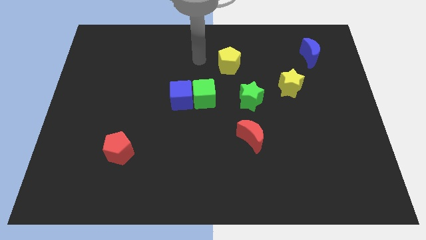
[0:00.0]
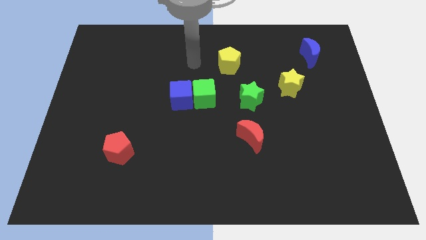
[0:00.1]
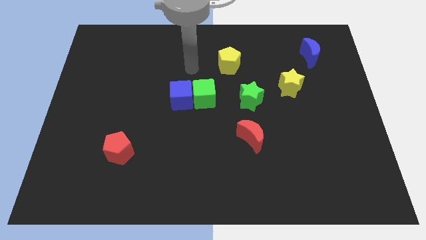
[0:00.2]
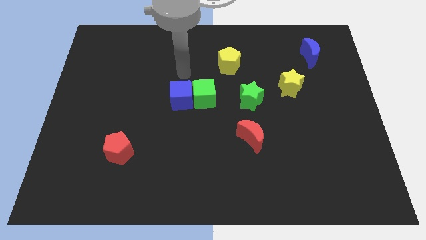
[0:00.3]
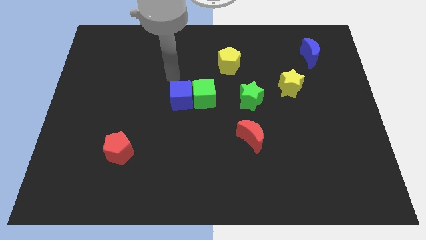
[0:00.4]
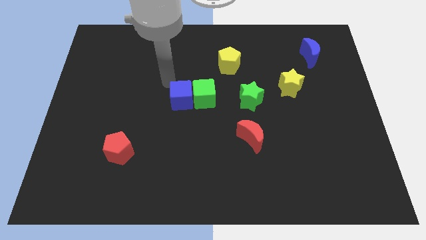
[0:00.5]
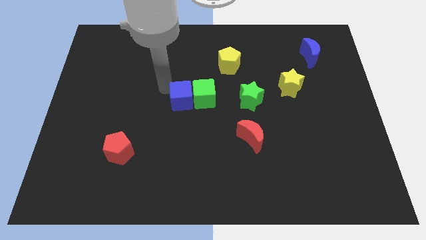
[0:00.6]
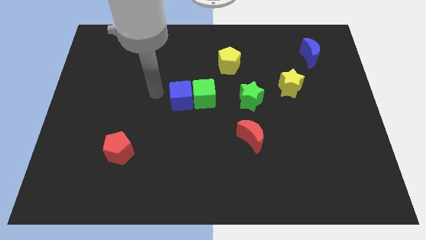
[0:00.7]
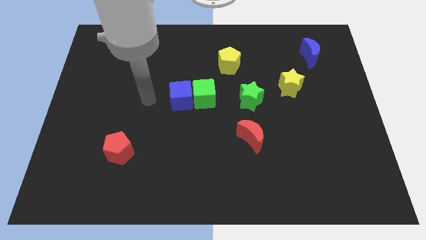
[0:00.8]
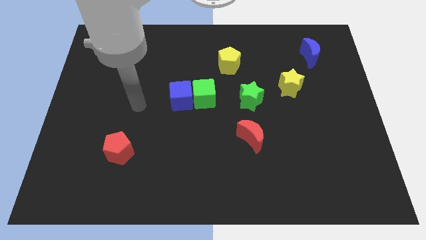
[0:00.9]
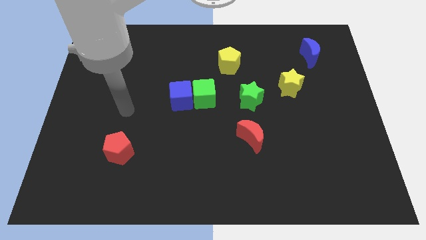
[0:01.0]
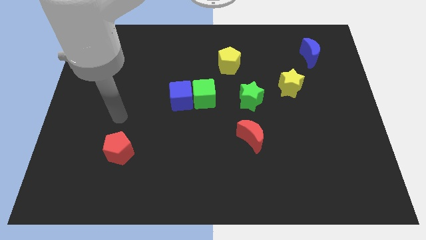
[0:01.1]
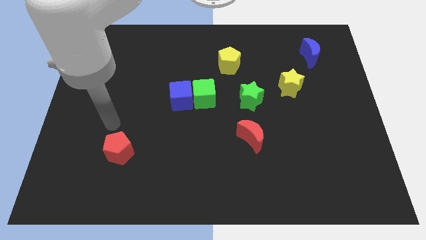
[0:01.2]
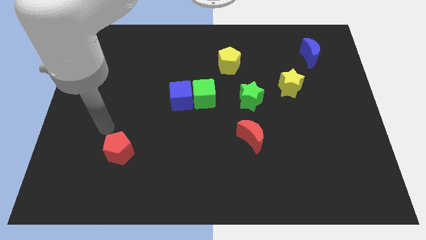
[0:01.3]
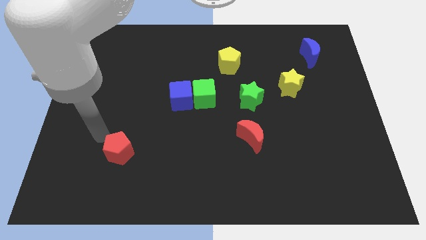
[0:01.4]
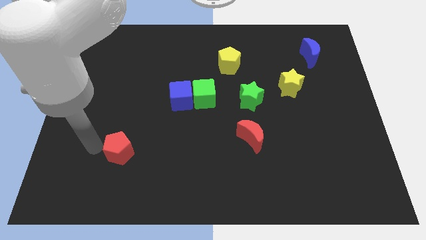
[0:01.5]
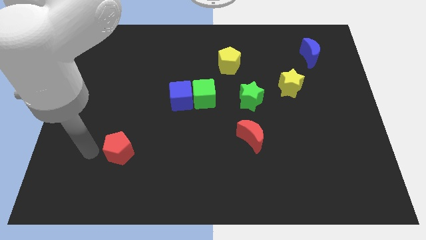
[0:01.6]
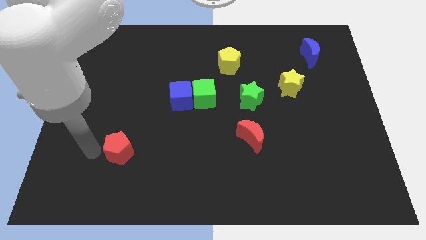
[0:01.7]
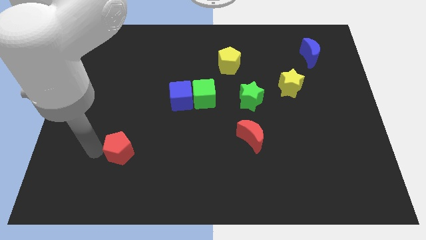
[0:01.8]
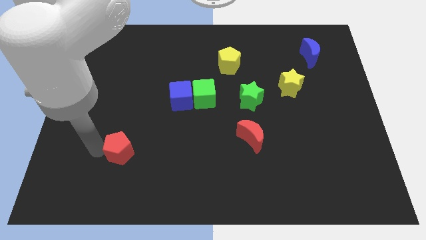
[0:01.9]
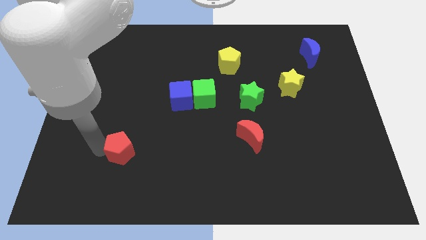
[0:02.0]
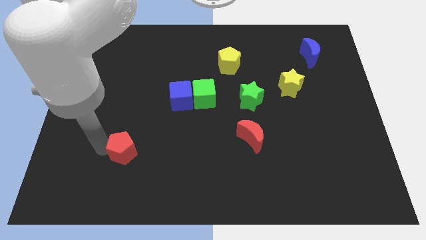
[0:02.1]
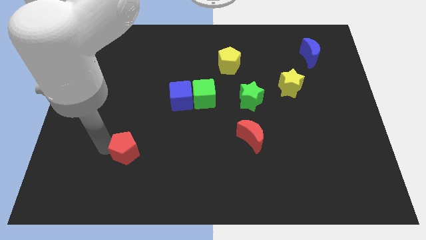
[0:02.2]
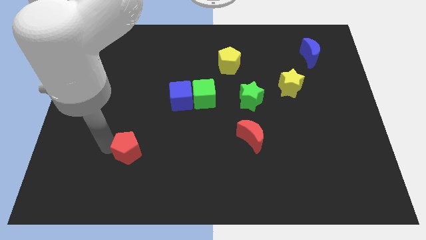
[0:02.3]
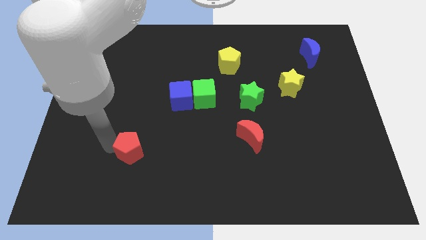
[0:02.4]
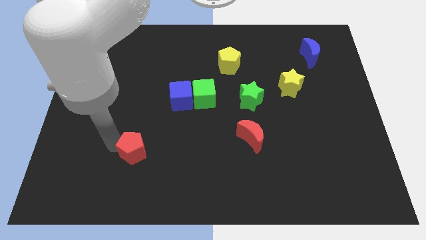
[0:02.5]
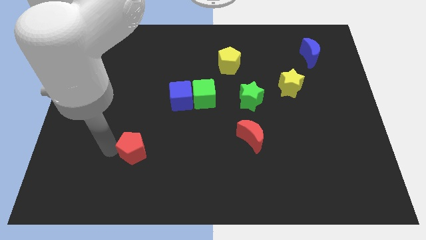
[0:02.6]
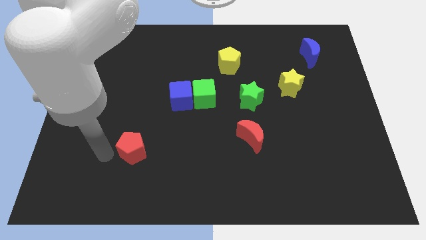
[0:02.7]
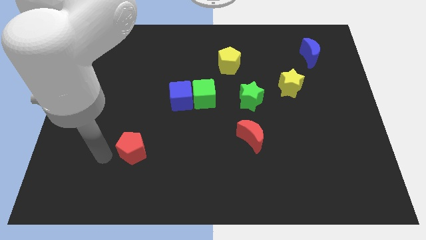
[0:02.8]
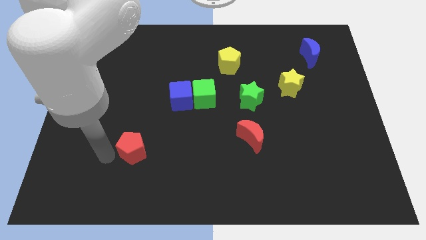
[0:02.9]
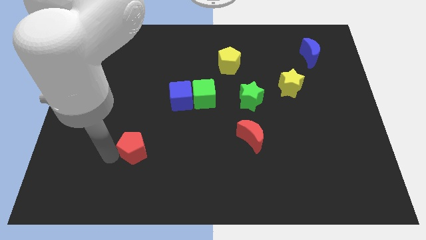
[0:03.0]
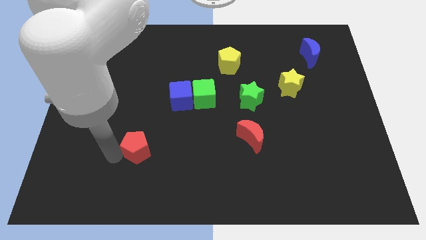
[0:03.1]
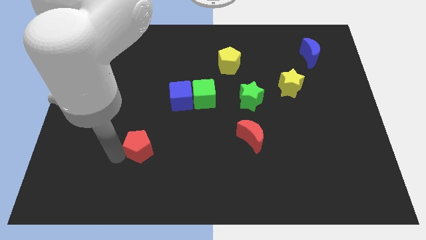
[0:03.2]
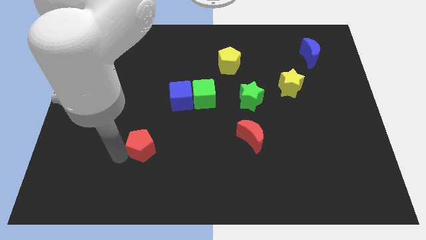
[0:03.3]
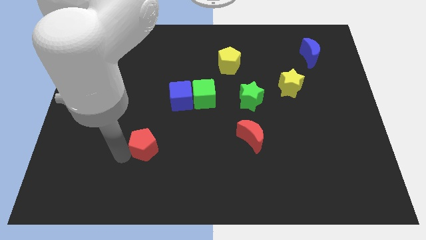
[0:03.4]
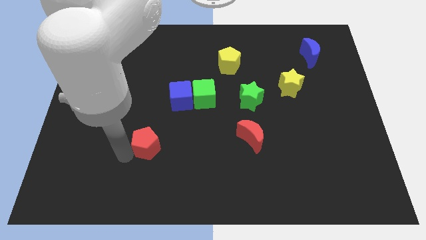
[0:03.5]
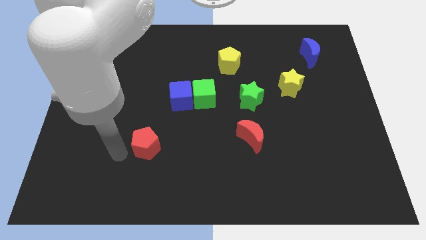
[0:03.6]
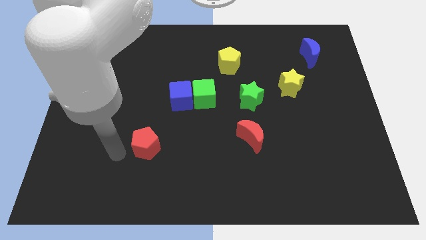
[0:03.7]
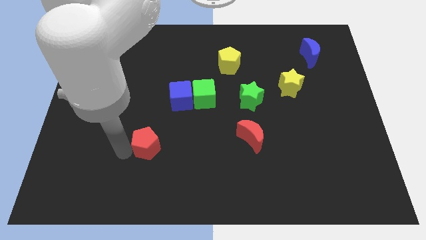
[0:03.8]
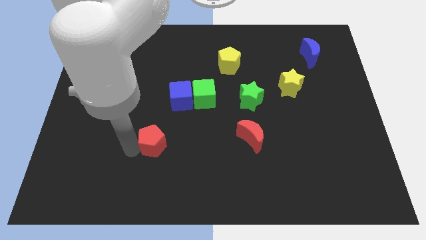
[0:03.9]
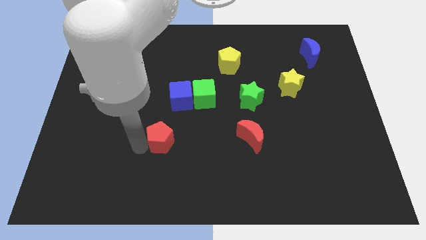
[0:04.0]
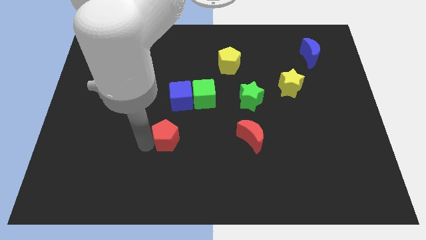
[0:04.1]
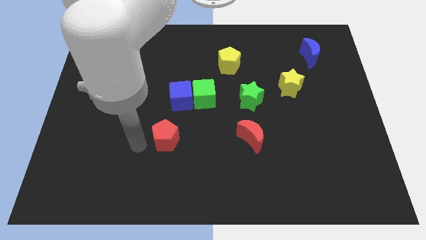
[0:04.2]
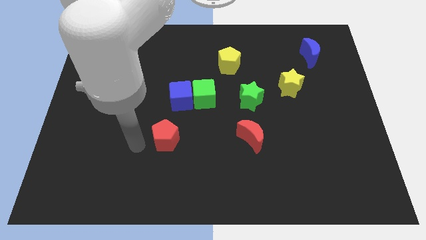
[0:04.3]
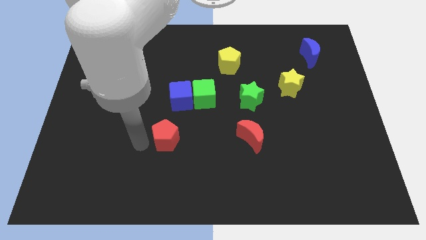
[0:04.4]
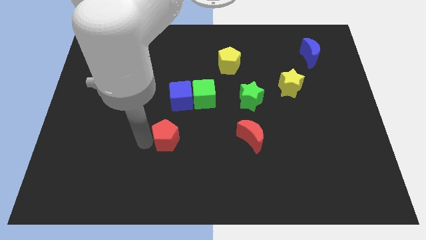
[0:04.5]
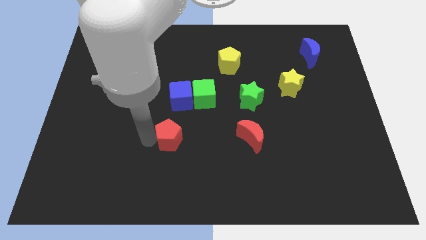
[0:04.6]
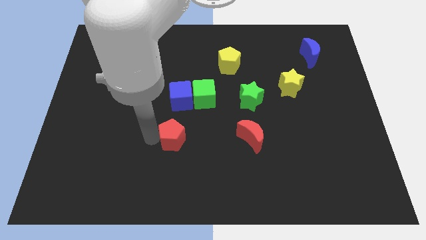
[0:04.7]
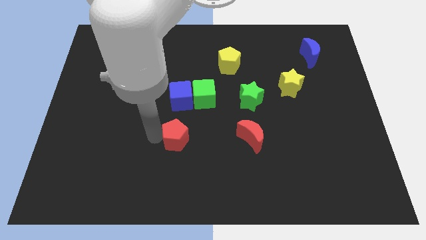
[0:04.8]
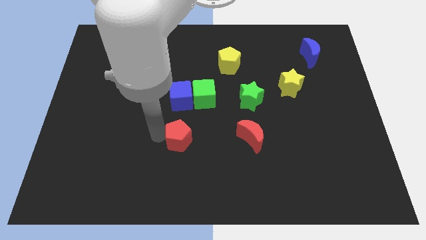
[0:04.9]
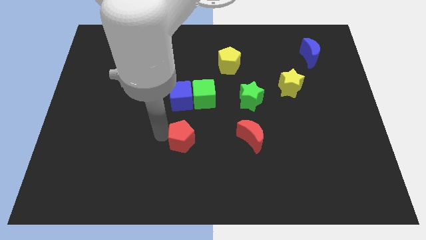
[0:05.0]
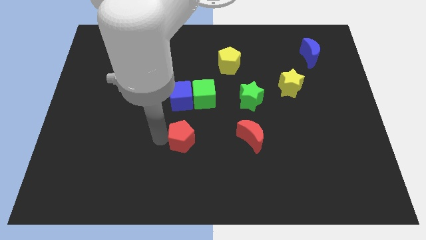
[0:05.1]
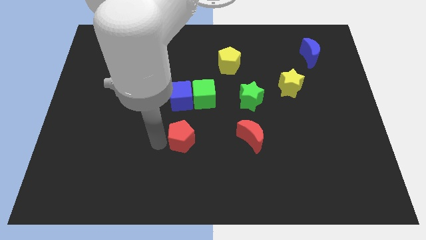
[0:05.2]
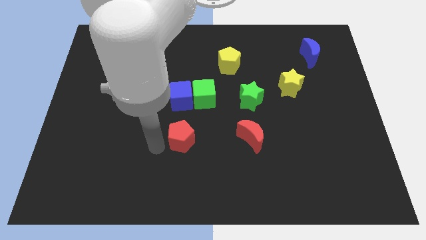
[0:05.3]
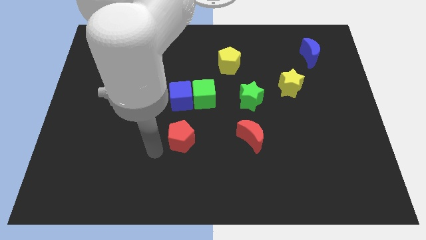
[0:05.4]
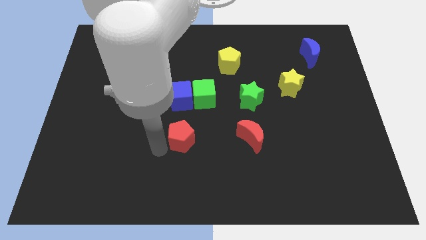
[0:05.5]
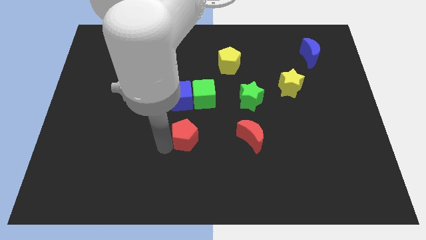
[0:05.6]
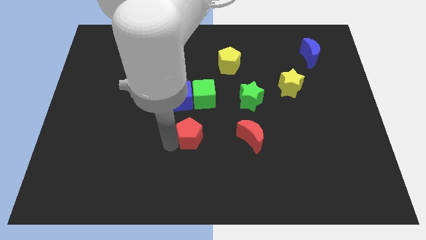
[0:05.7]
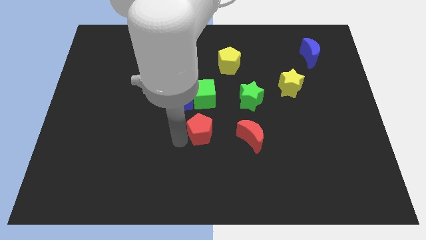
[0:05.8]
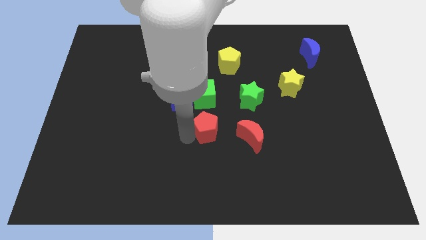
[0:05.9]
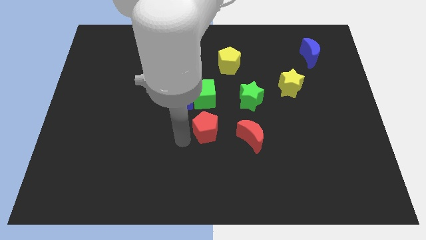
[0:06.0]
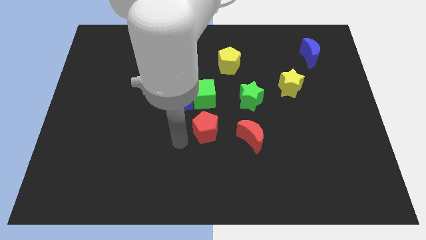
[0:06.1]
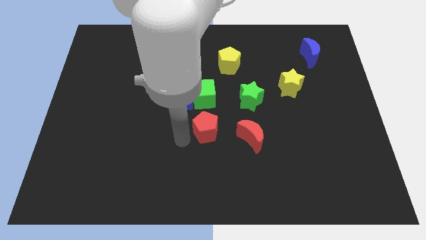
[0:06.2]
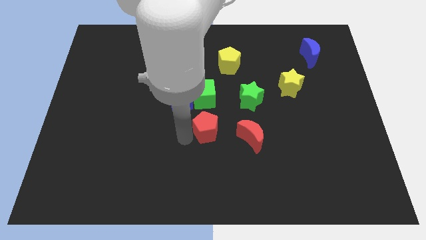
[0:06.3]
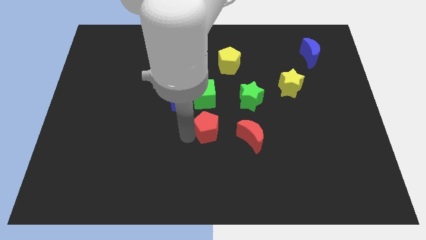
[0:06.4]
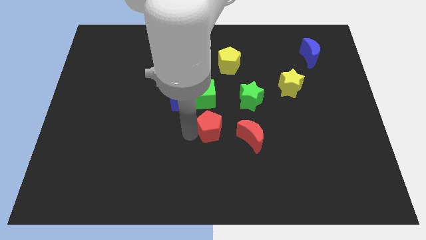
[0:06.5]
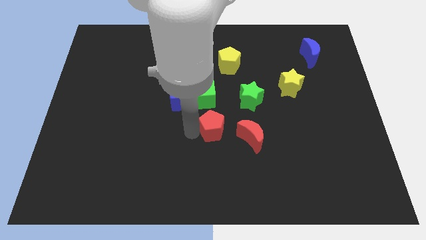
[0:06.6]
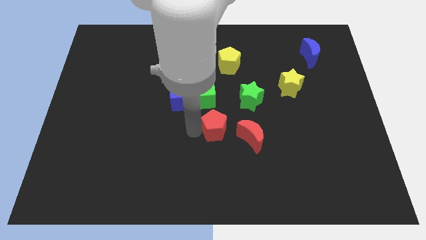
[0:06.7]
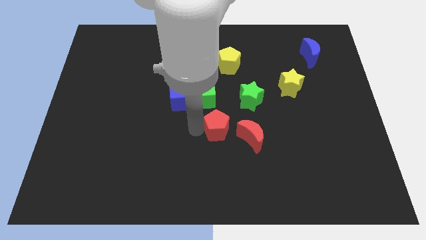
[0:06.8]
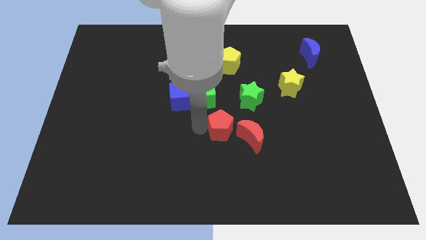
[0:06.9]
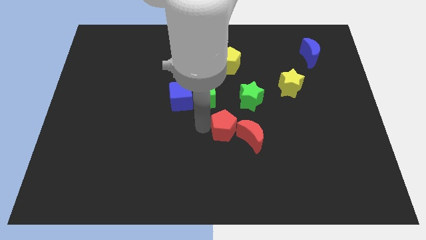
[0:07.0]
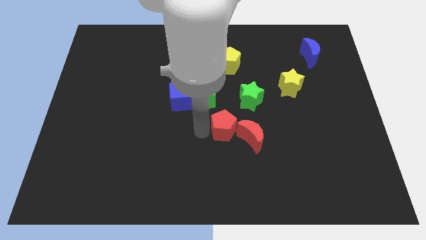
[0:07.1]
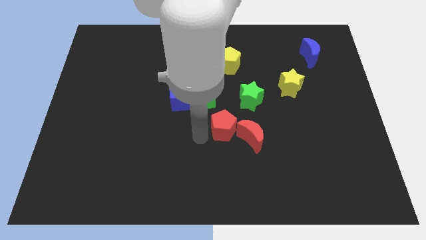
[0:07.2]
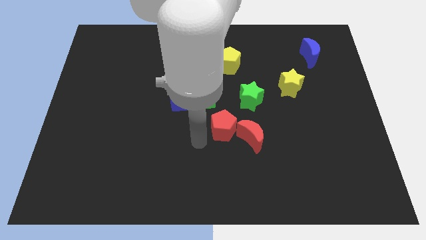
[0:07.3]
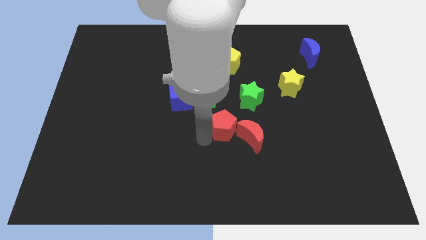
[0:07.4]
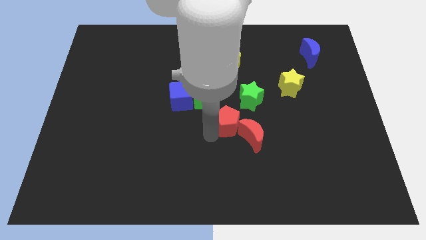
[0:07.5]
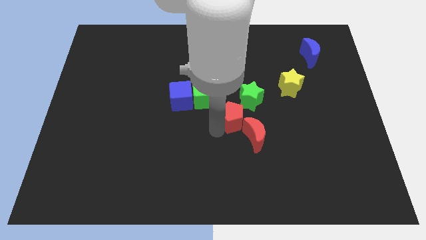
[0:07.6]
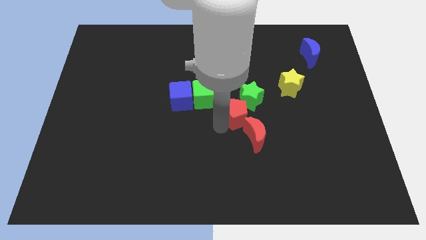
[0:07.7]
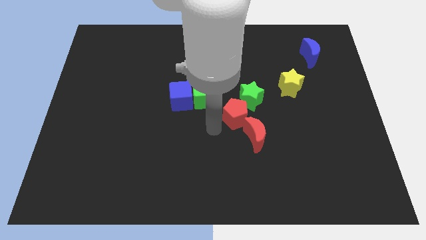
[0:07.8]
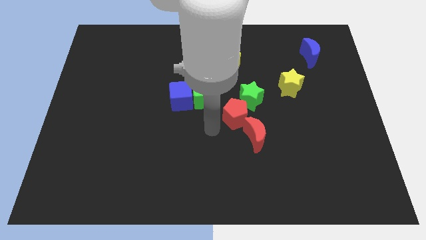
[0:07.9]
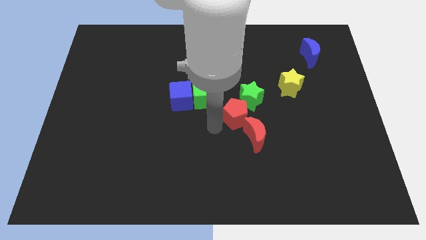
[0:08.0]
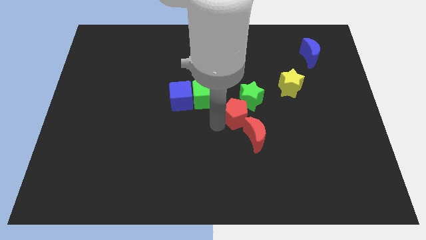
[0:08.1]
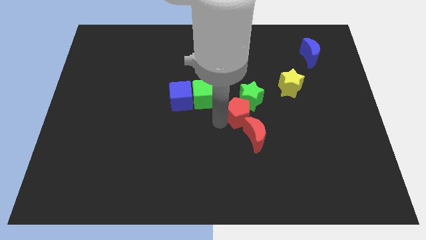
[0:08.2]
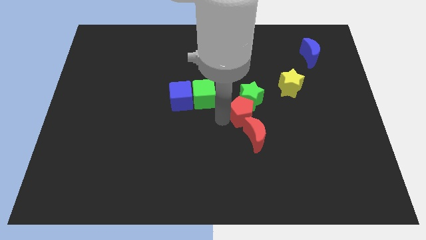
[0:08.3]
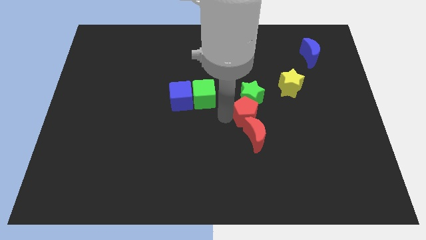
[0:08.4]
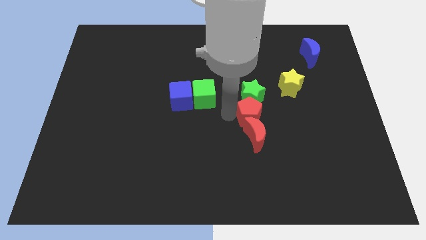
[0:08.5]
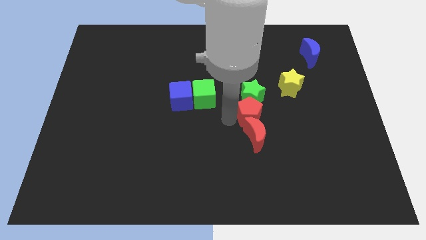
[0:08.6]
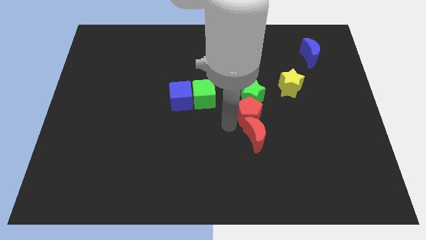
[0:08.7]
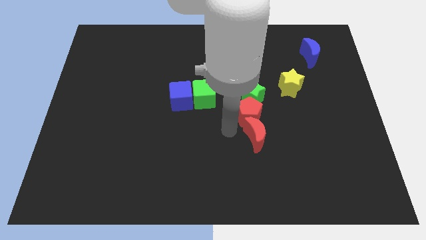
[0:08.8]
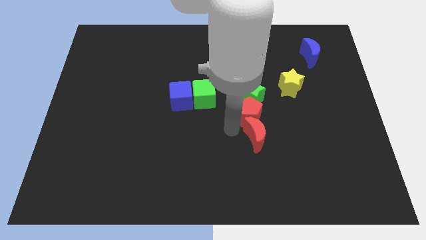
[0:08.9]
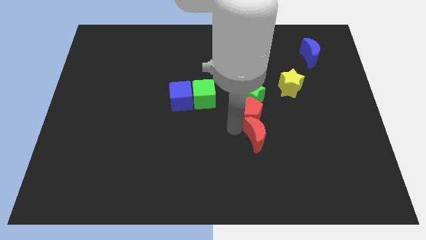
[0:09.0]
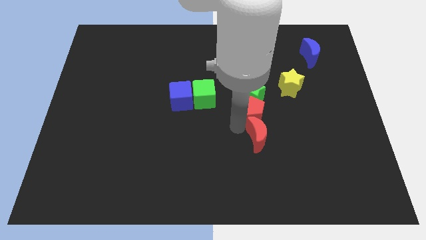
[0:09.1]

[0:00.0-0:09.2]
move the red pentagon just right of the green cube
